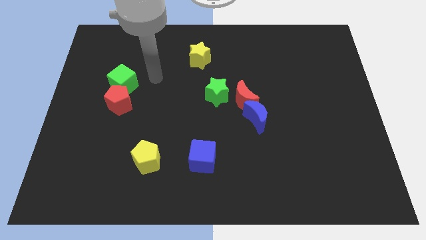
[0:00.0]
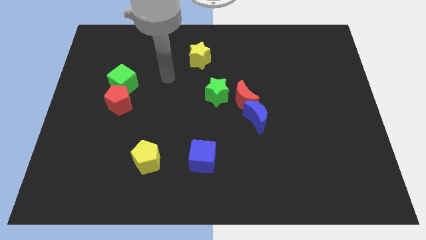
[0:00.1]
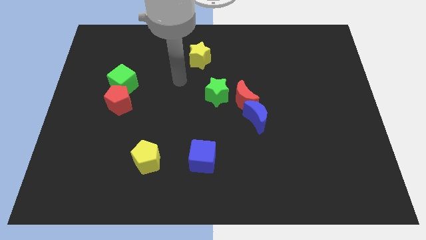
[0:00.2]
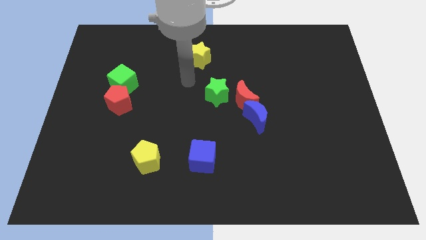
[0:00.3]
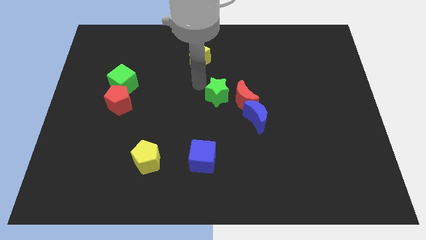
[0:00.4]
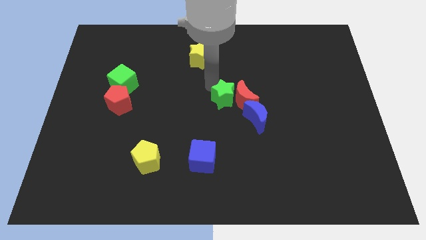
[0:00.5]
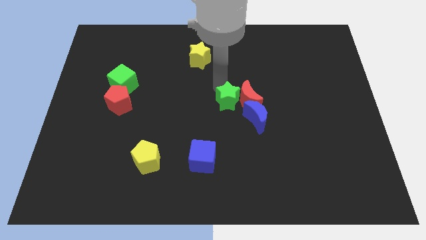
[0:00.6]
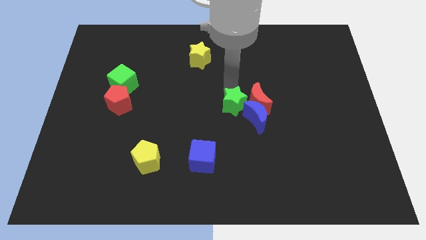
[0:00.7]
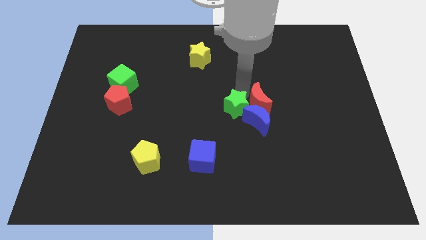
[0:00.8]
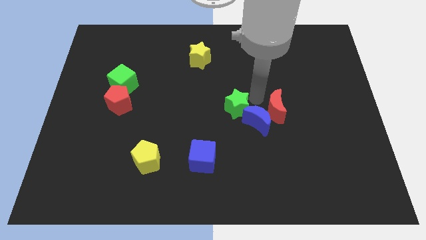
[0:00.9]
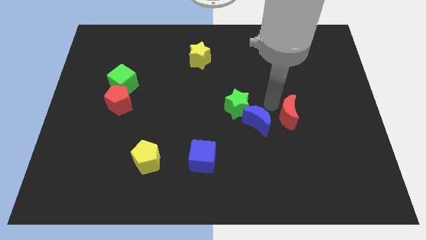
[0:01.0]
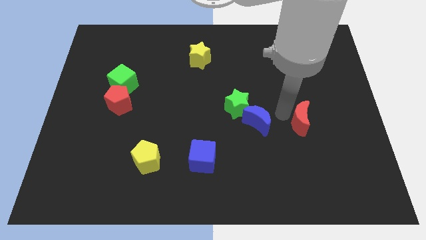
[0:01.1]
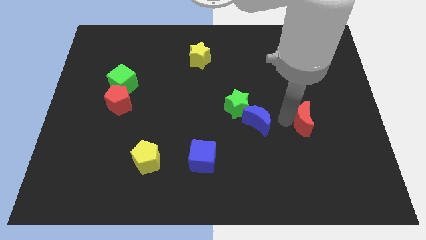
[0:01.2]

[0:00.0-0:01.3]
separate the blue moon from the red moon

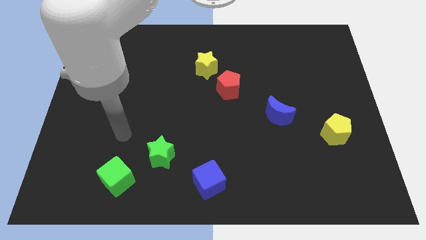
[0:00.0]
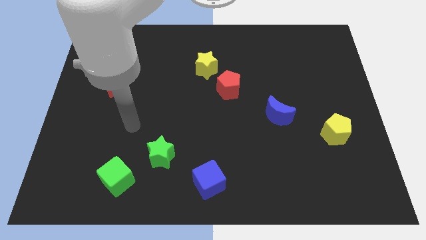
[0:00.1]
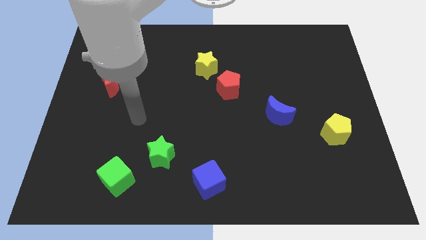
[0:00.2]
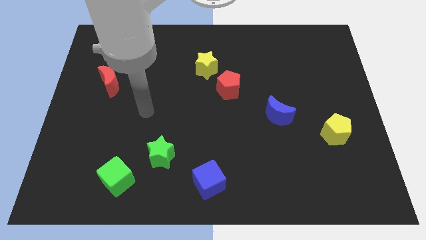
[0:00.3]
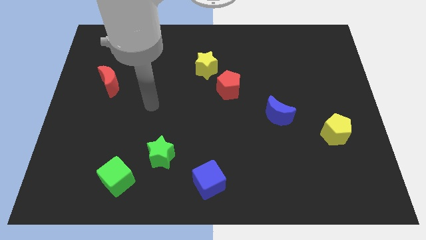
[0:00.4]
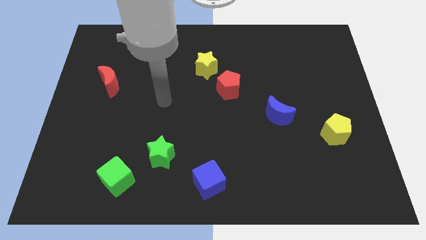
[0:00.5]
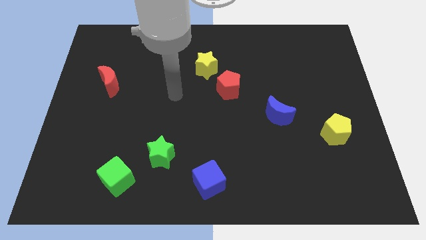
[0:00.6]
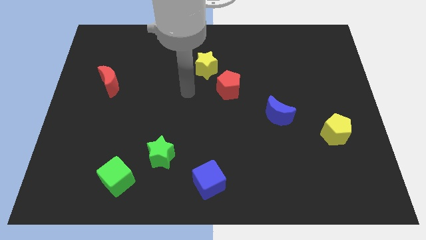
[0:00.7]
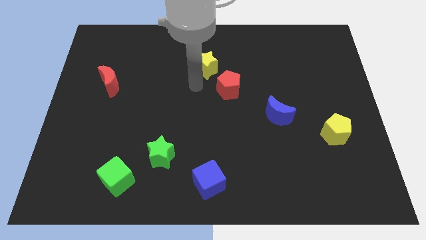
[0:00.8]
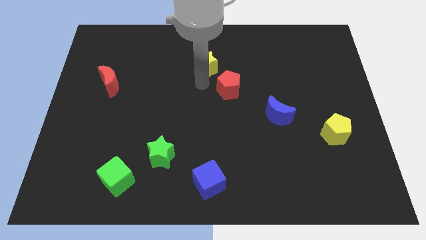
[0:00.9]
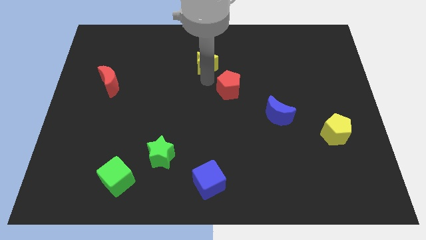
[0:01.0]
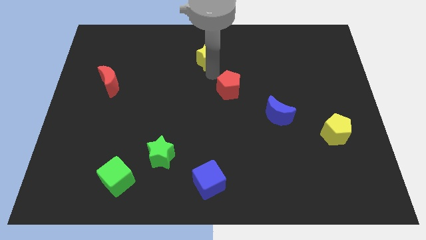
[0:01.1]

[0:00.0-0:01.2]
pull the red pentagon apart from the yellow star

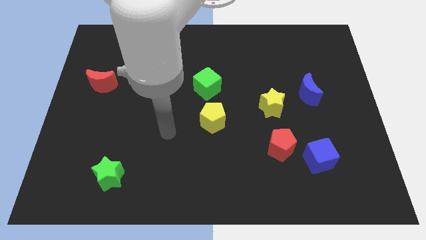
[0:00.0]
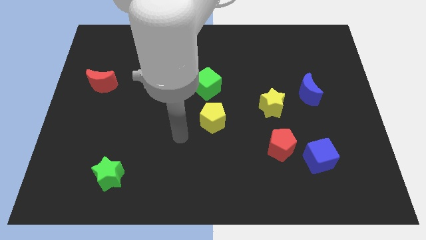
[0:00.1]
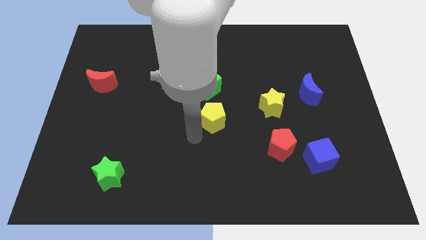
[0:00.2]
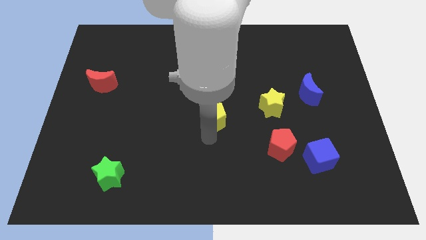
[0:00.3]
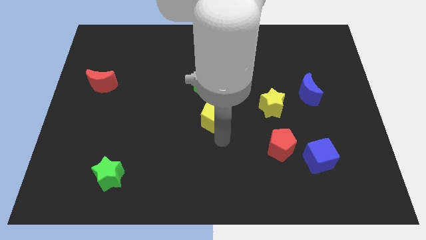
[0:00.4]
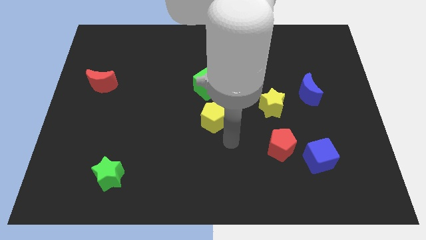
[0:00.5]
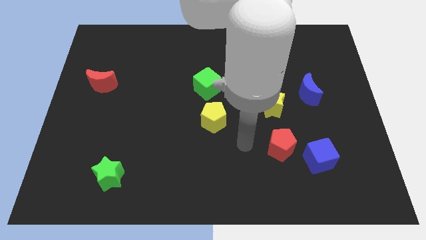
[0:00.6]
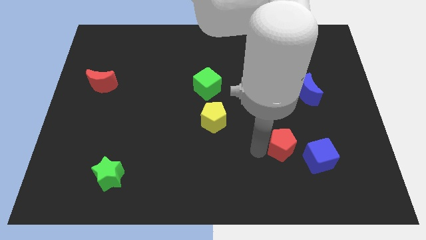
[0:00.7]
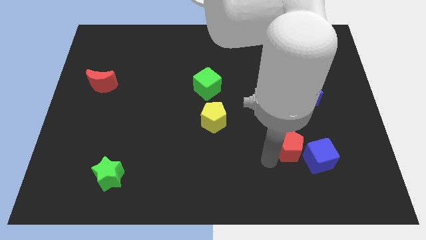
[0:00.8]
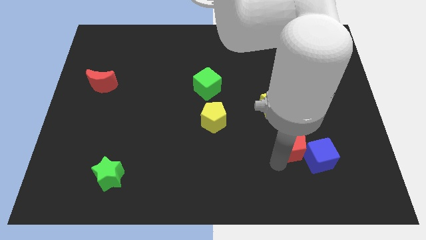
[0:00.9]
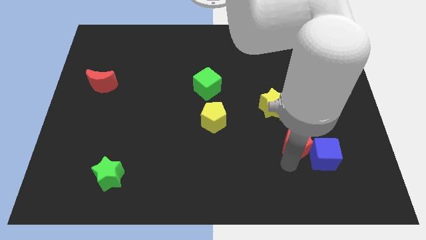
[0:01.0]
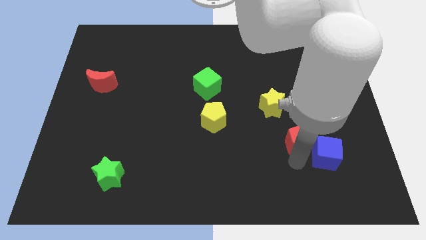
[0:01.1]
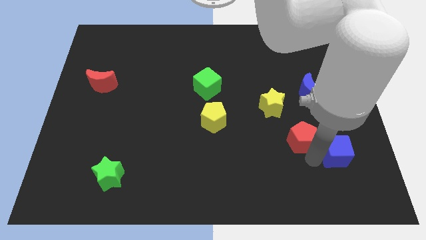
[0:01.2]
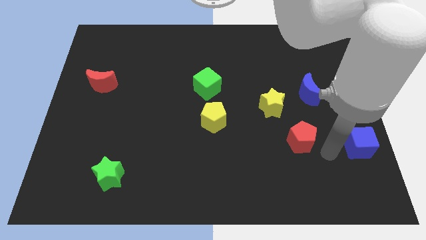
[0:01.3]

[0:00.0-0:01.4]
pull the red pentagon apart from the blue cube

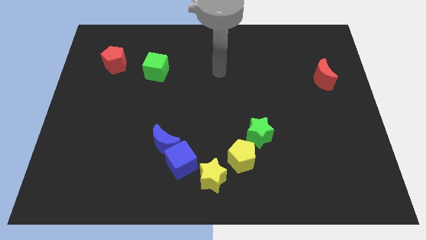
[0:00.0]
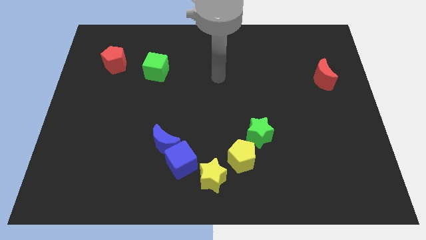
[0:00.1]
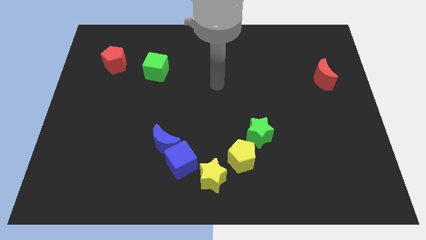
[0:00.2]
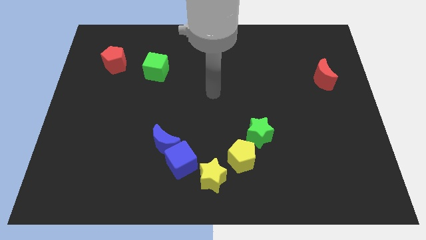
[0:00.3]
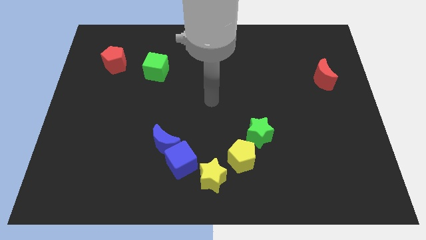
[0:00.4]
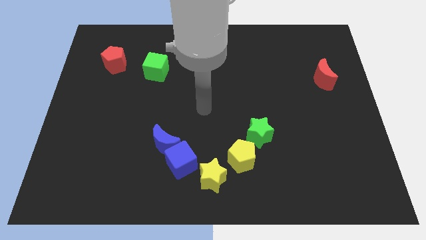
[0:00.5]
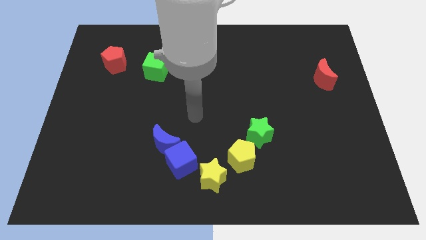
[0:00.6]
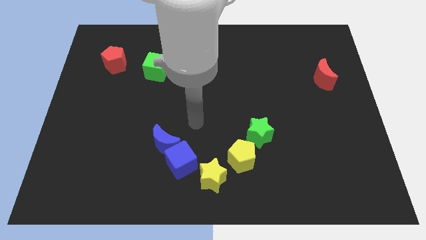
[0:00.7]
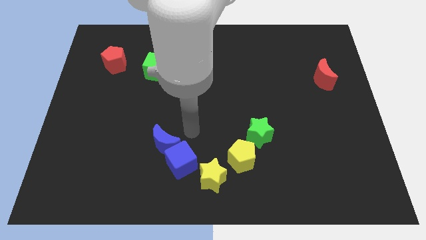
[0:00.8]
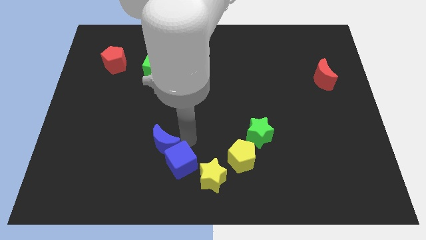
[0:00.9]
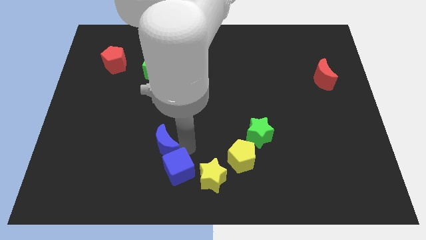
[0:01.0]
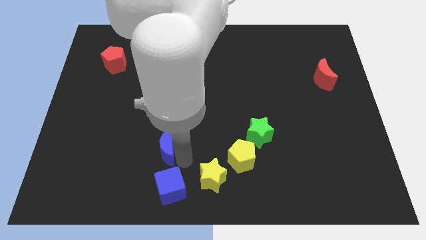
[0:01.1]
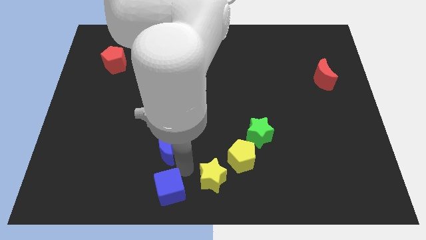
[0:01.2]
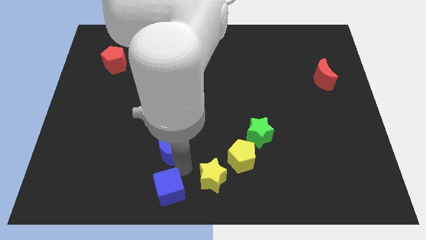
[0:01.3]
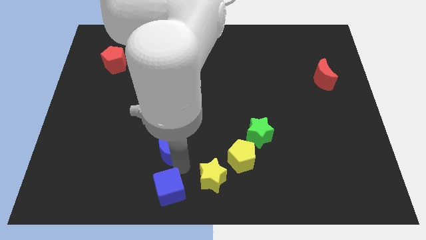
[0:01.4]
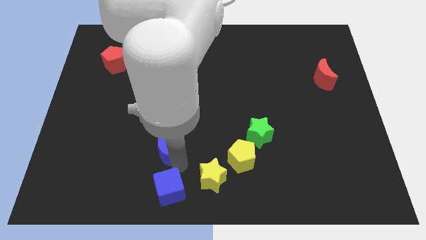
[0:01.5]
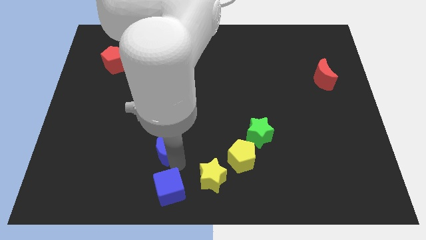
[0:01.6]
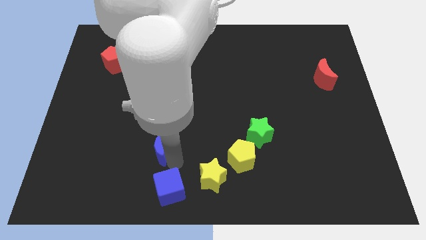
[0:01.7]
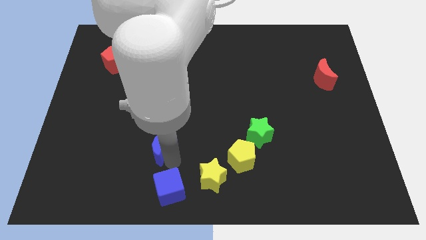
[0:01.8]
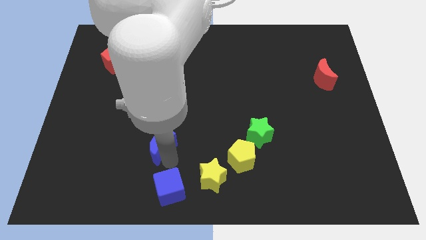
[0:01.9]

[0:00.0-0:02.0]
move the blue moon away from the blue cube

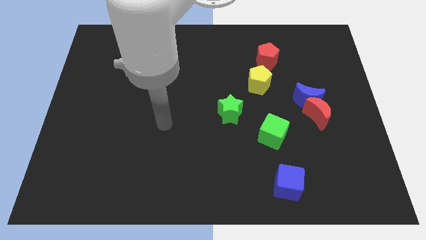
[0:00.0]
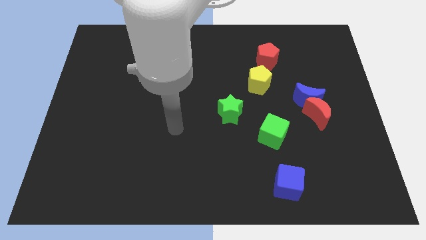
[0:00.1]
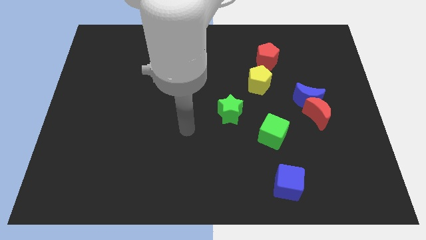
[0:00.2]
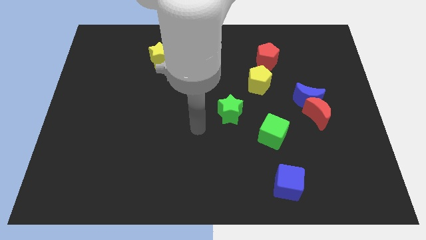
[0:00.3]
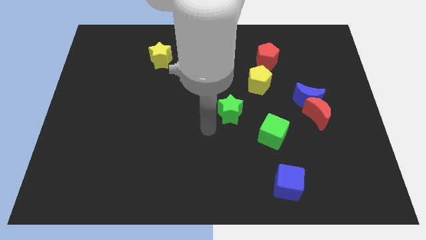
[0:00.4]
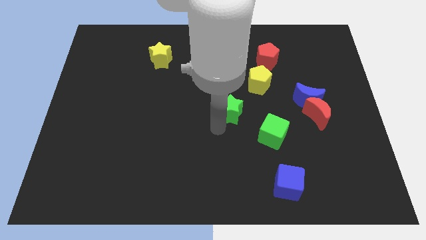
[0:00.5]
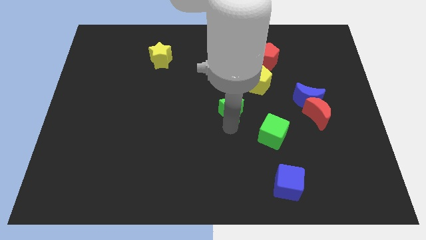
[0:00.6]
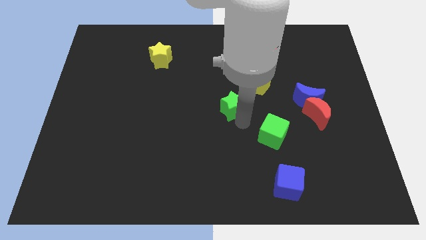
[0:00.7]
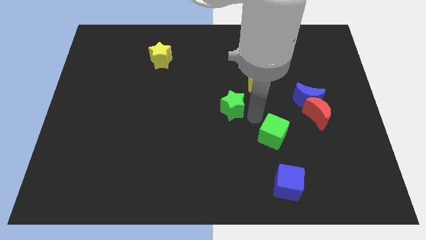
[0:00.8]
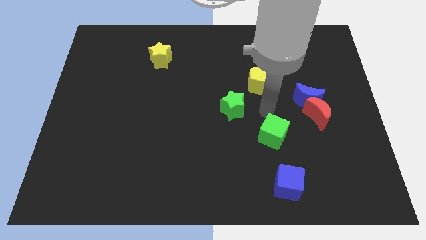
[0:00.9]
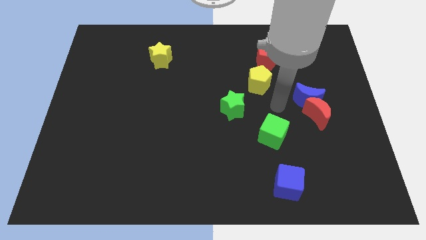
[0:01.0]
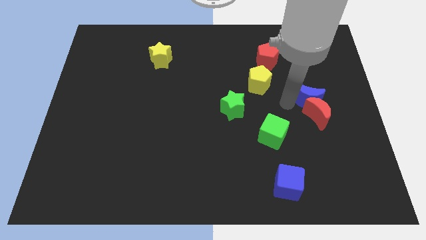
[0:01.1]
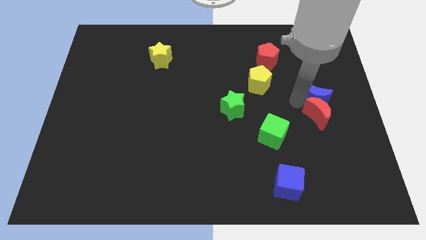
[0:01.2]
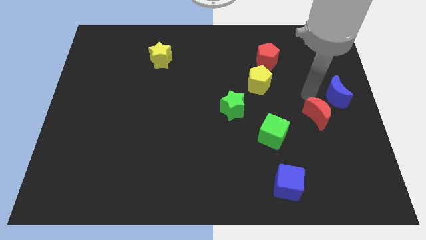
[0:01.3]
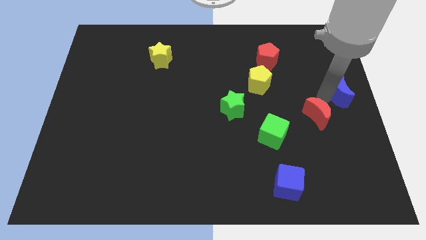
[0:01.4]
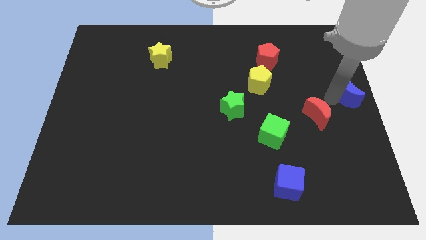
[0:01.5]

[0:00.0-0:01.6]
separate the red moon from the blue moon

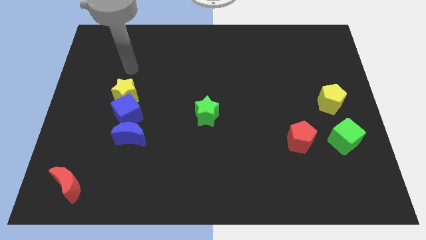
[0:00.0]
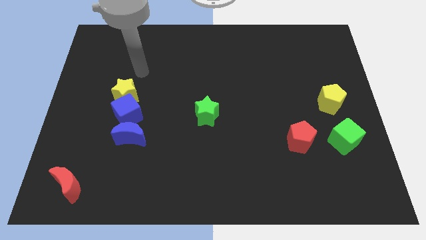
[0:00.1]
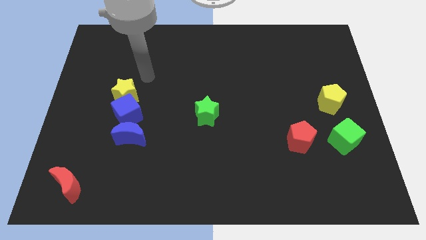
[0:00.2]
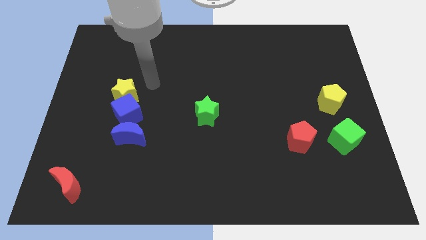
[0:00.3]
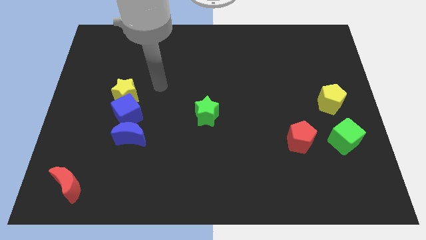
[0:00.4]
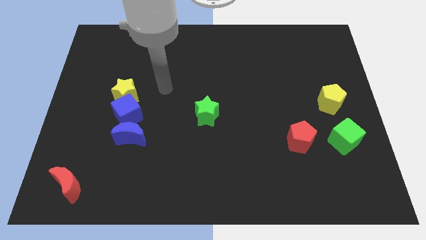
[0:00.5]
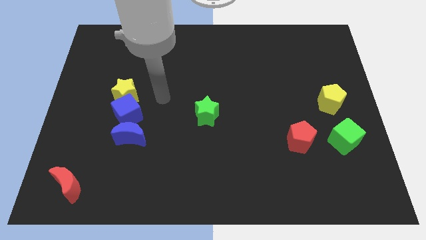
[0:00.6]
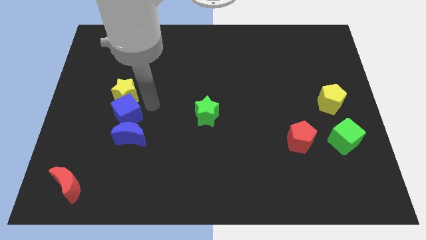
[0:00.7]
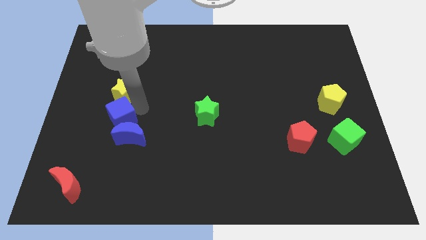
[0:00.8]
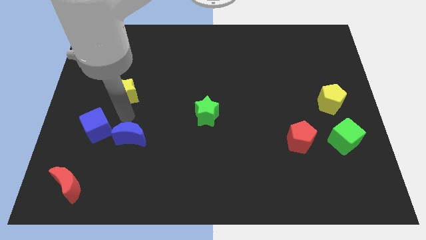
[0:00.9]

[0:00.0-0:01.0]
move the yellow star away from the blue cube

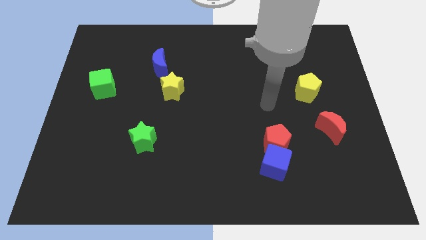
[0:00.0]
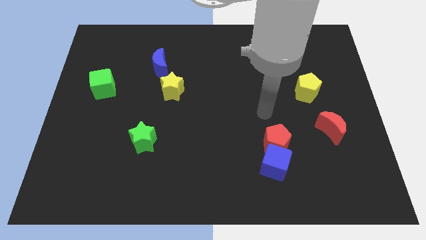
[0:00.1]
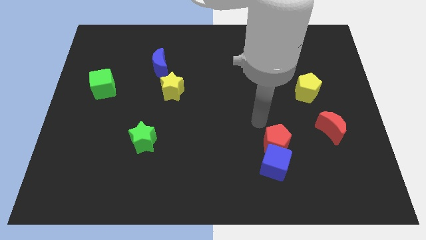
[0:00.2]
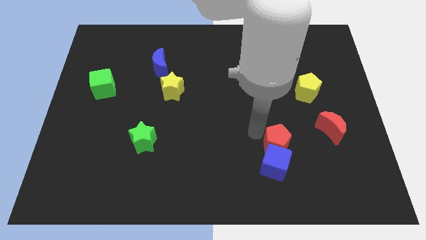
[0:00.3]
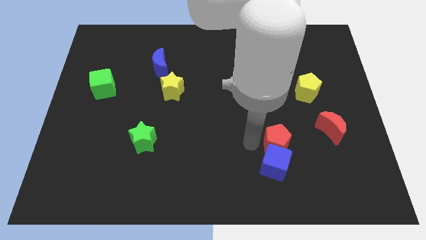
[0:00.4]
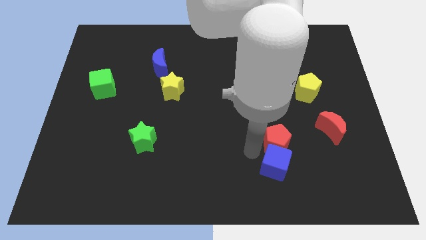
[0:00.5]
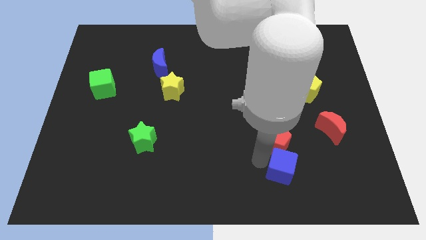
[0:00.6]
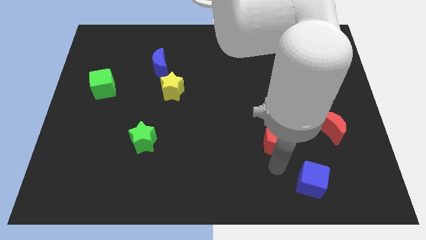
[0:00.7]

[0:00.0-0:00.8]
separate the red pentagon from the blue cube
